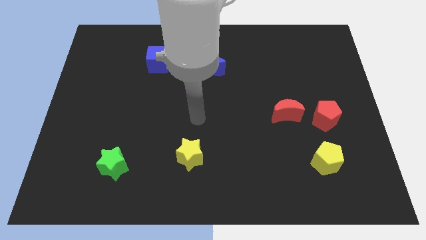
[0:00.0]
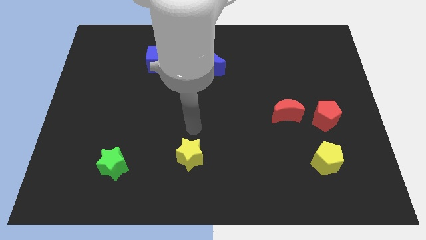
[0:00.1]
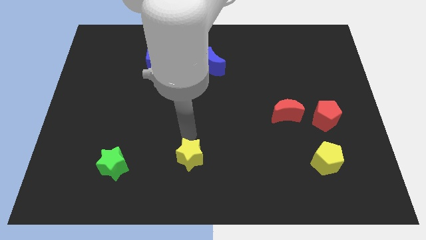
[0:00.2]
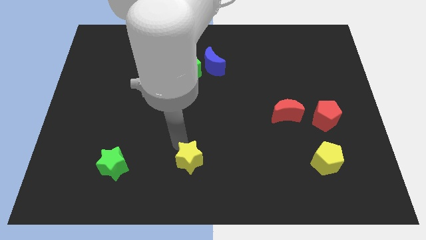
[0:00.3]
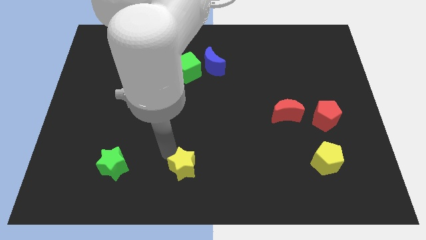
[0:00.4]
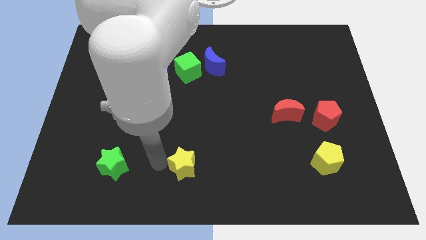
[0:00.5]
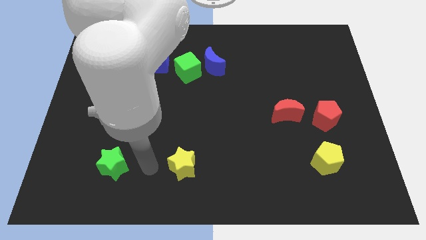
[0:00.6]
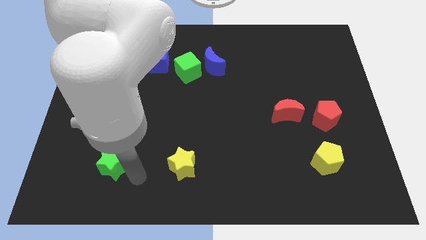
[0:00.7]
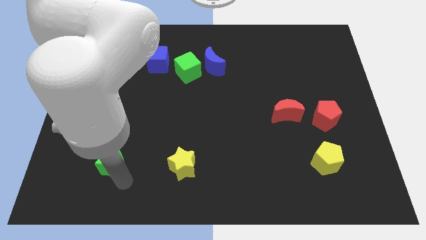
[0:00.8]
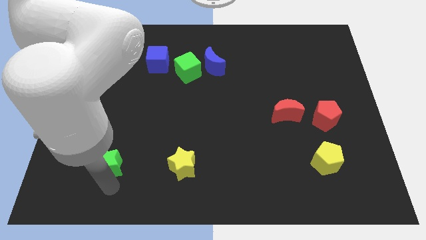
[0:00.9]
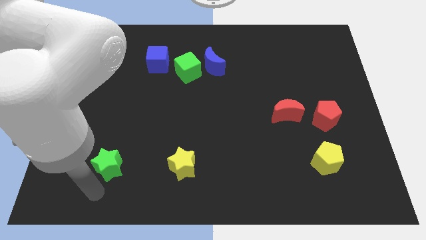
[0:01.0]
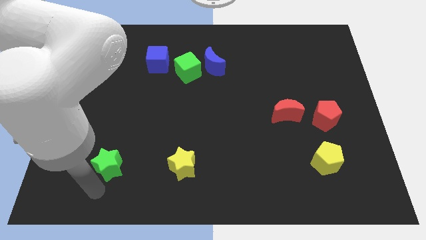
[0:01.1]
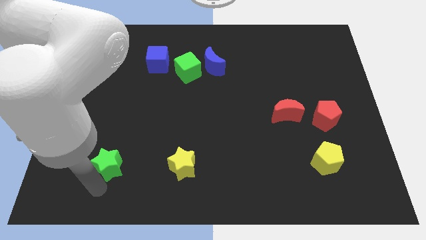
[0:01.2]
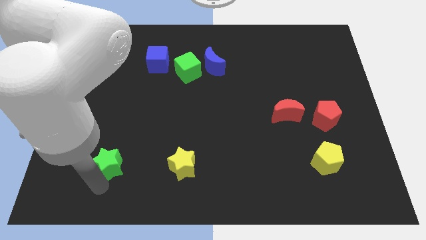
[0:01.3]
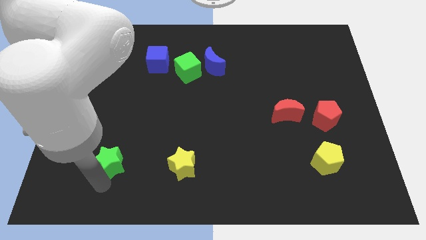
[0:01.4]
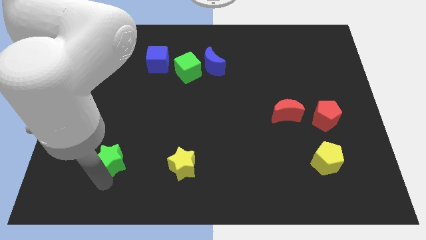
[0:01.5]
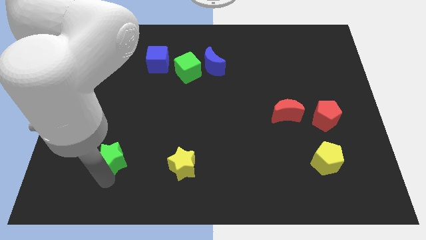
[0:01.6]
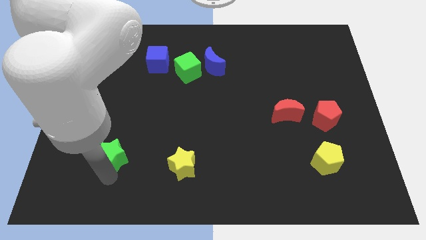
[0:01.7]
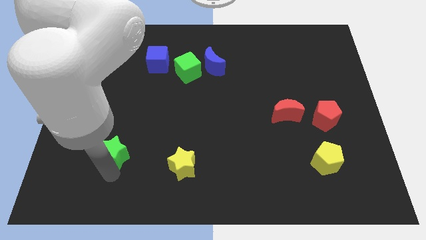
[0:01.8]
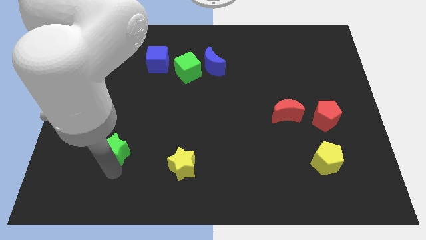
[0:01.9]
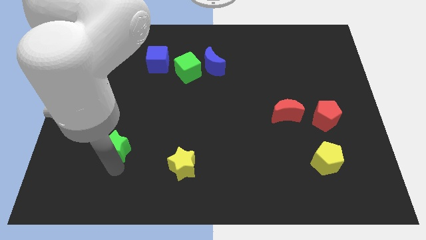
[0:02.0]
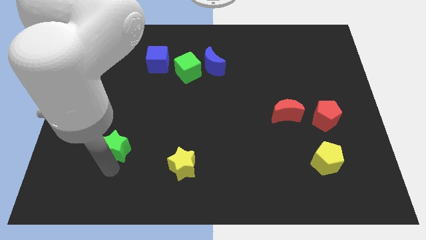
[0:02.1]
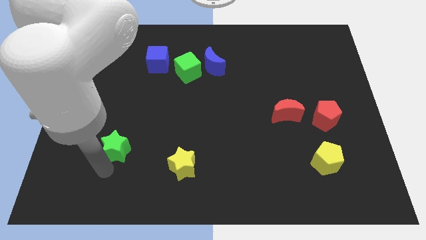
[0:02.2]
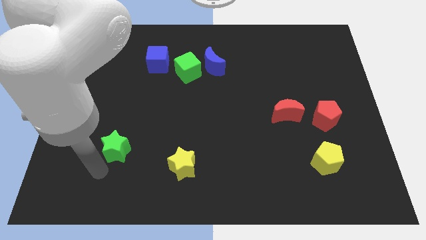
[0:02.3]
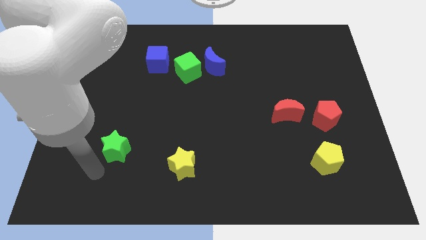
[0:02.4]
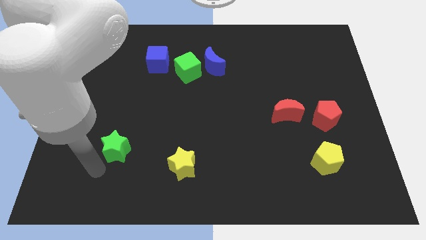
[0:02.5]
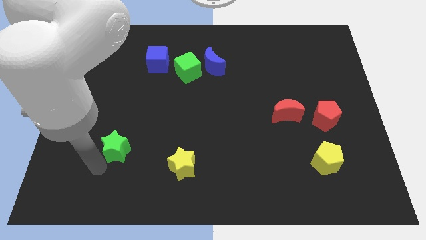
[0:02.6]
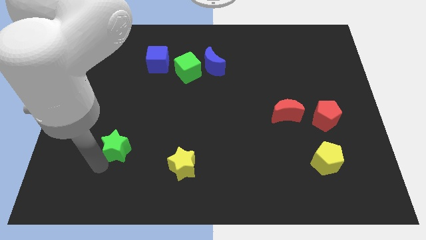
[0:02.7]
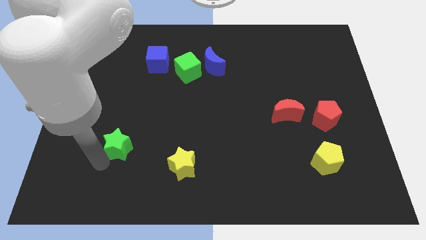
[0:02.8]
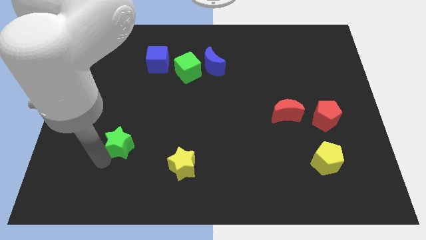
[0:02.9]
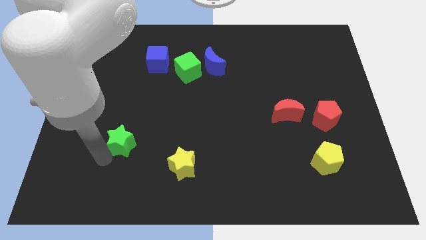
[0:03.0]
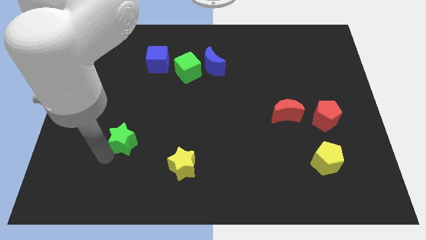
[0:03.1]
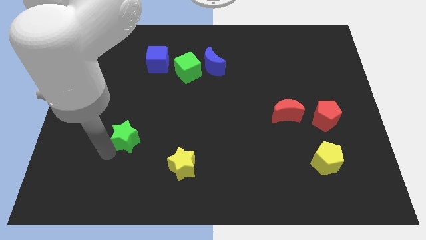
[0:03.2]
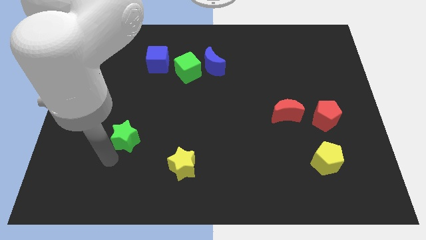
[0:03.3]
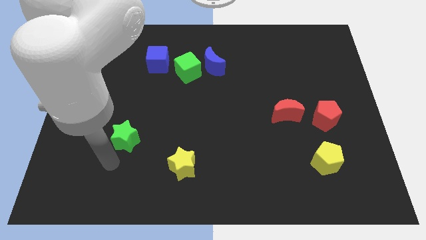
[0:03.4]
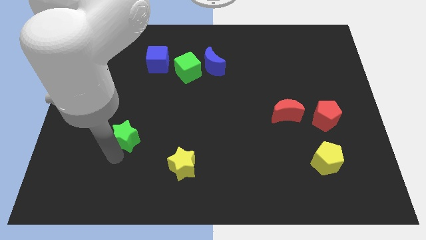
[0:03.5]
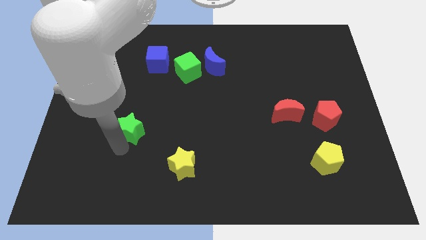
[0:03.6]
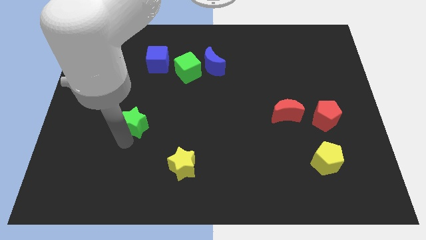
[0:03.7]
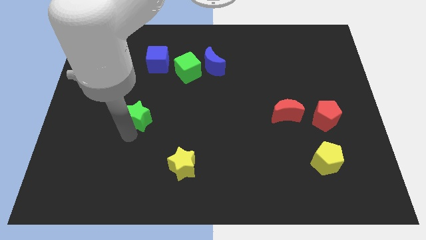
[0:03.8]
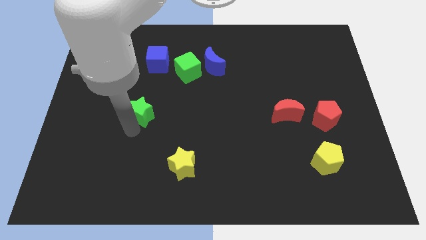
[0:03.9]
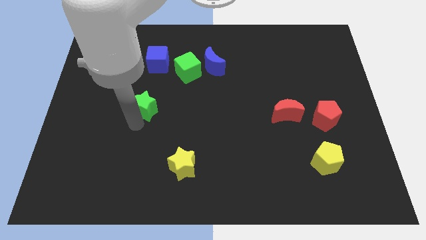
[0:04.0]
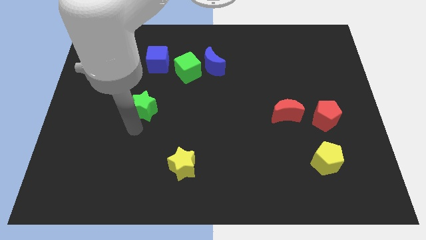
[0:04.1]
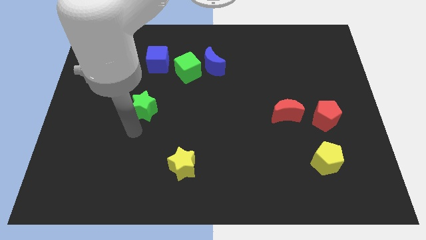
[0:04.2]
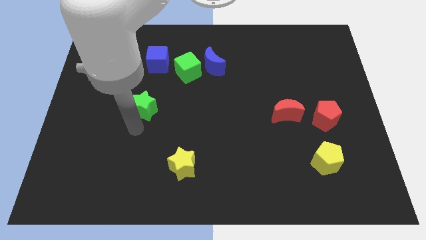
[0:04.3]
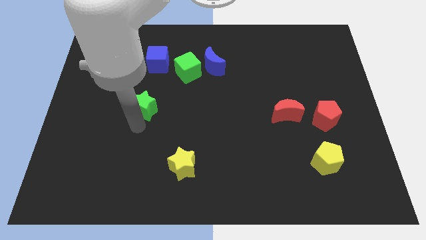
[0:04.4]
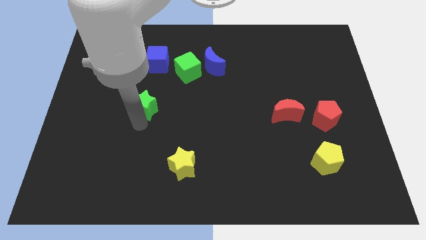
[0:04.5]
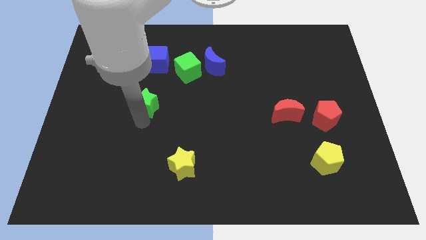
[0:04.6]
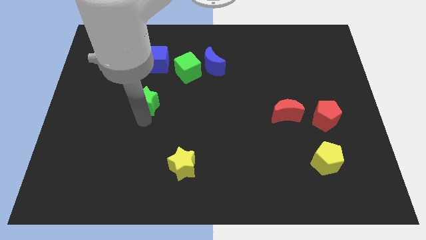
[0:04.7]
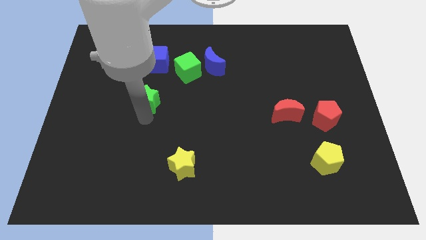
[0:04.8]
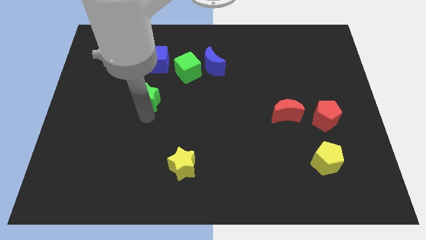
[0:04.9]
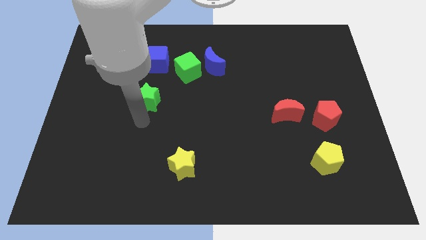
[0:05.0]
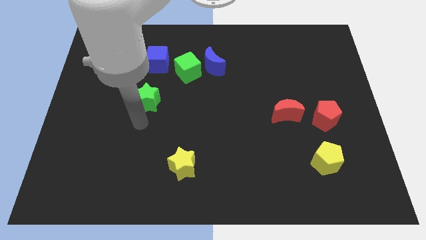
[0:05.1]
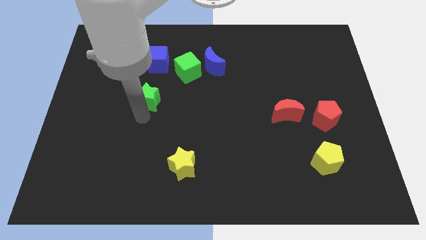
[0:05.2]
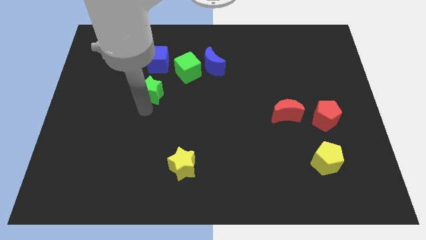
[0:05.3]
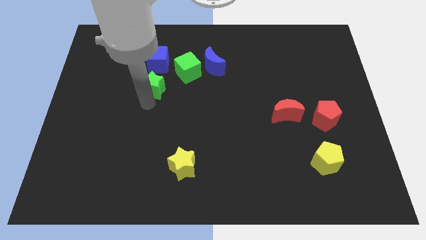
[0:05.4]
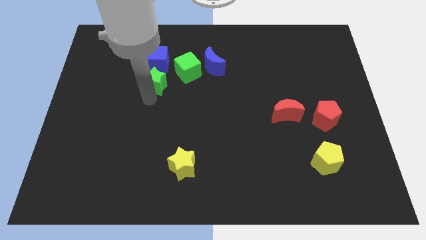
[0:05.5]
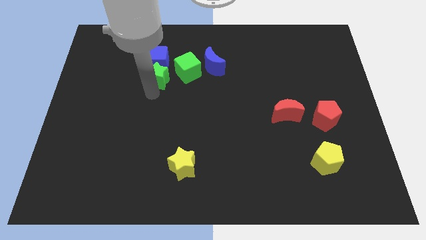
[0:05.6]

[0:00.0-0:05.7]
put the green star towards the blue cube

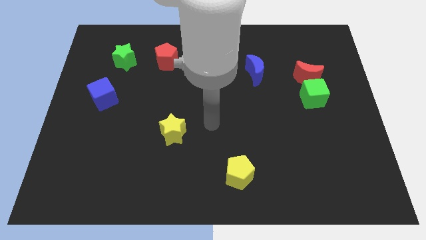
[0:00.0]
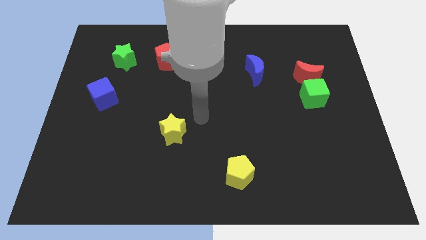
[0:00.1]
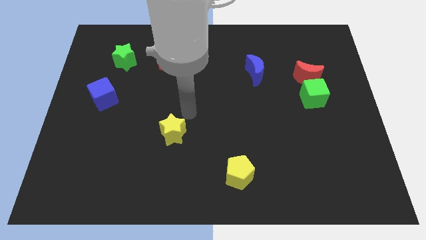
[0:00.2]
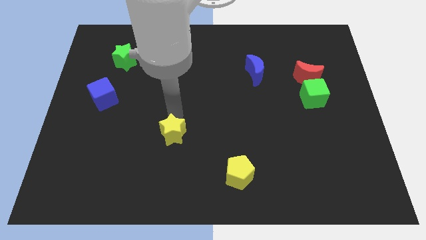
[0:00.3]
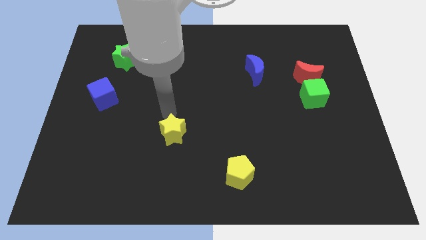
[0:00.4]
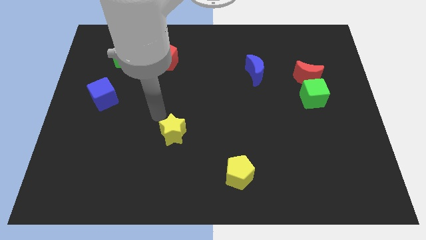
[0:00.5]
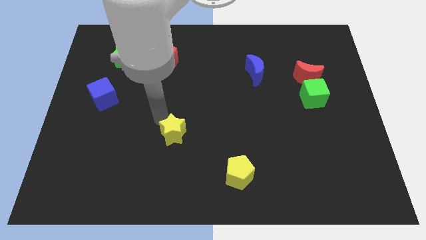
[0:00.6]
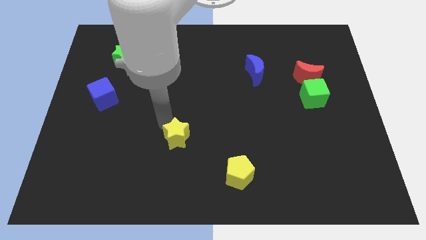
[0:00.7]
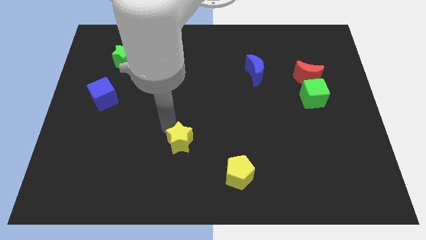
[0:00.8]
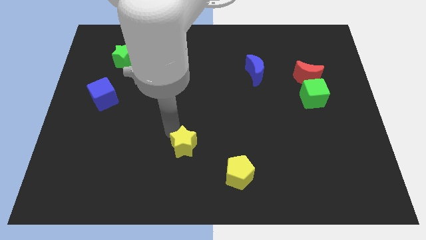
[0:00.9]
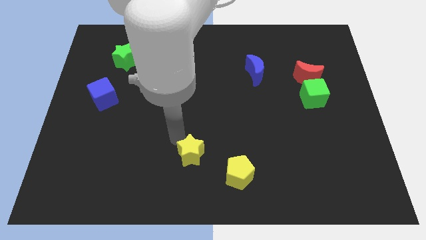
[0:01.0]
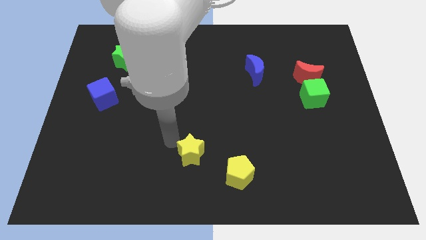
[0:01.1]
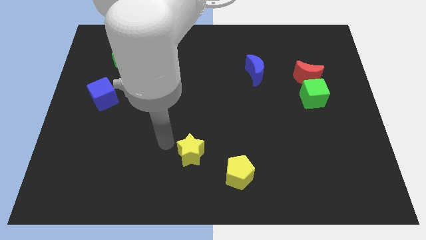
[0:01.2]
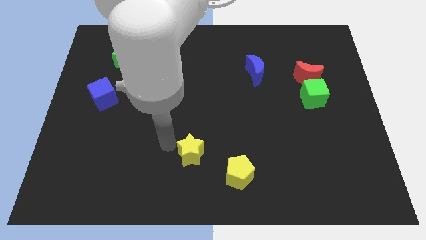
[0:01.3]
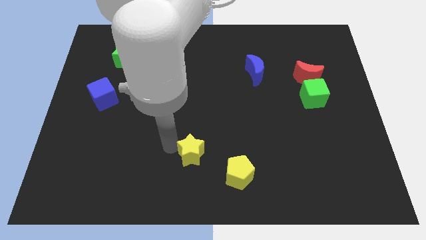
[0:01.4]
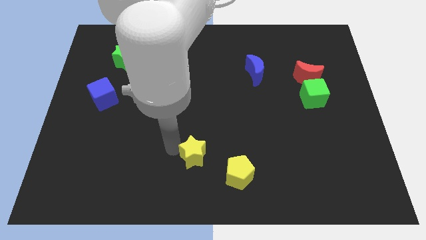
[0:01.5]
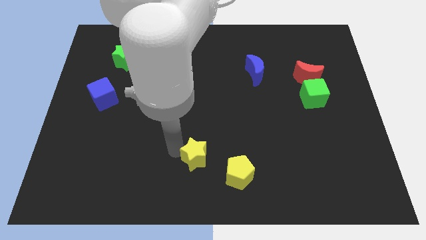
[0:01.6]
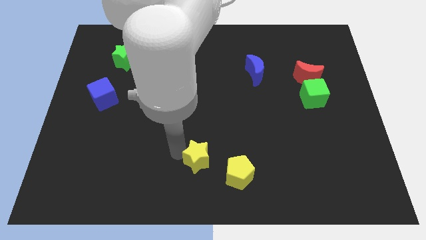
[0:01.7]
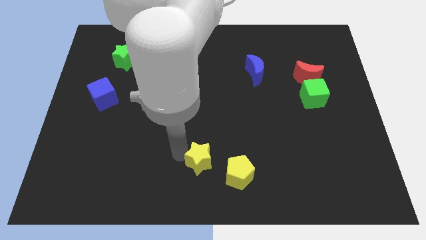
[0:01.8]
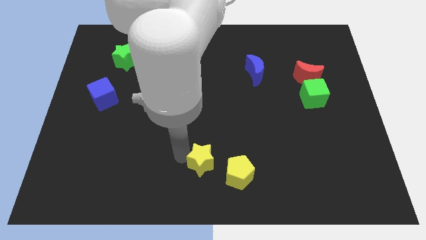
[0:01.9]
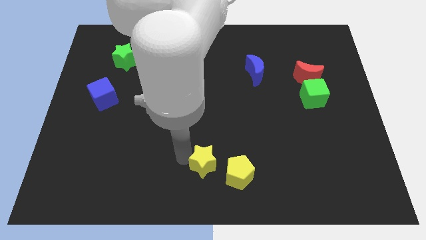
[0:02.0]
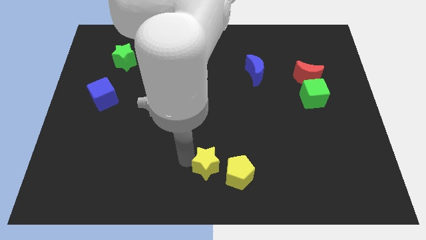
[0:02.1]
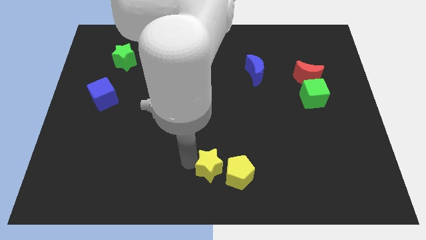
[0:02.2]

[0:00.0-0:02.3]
slide the yellow star close to the yellow pentagon

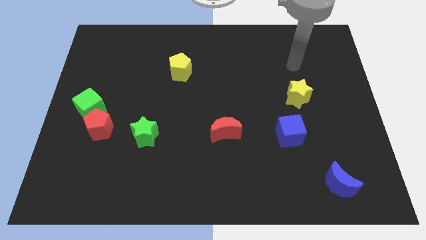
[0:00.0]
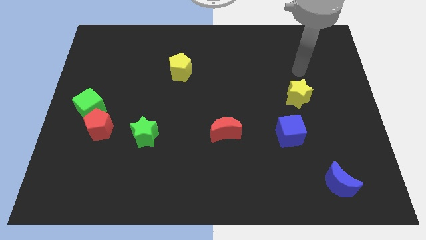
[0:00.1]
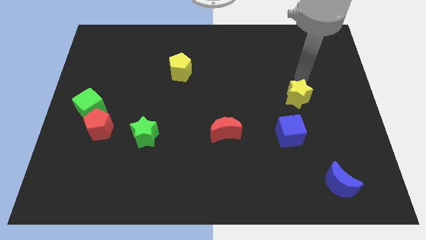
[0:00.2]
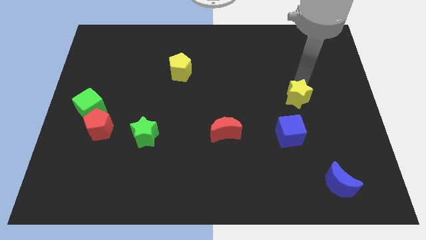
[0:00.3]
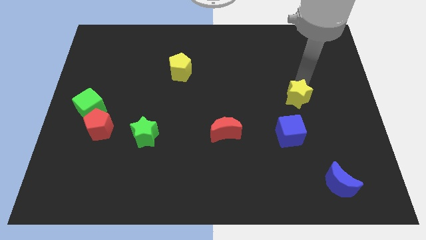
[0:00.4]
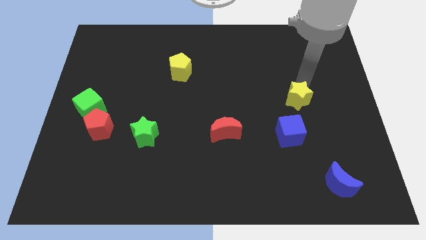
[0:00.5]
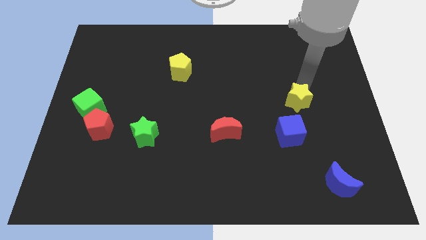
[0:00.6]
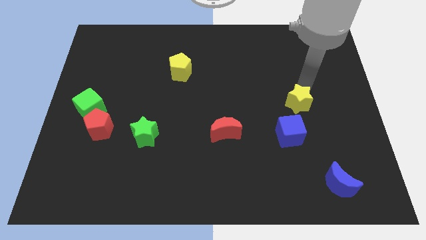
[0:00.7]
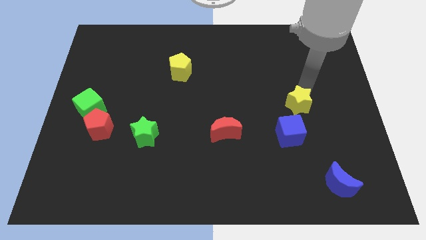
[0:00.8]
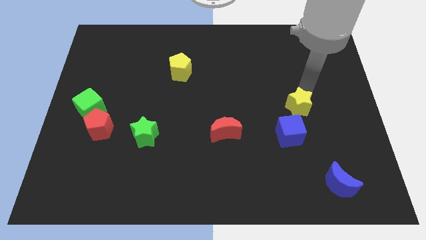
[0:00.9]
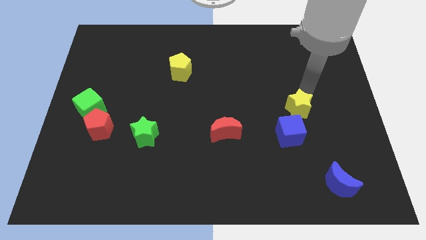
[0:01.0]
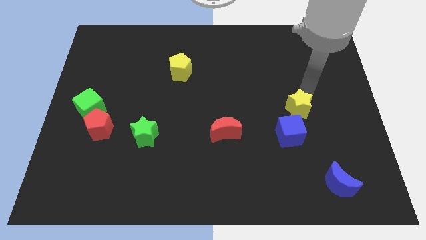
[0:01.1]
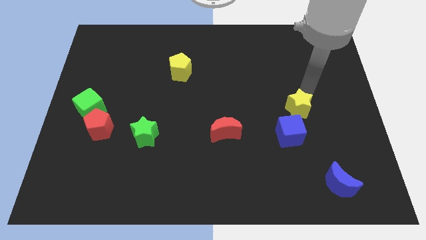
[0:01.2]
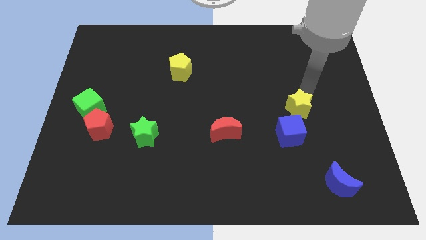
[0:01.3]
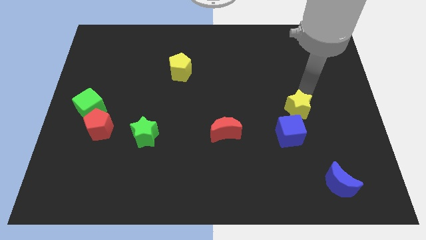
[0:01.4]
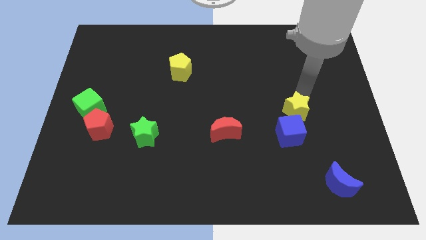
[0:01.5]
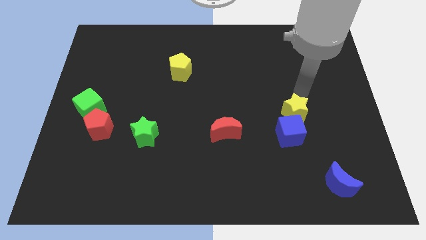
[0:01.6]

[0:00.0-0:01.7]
slide the yellow star next to the blue cube
